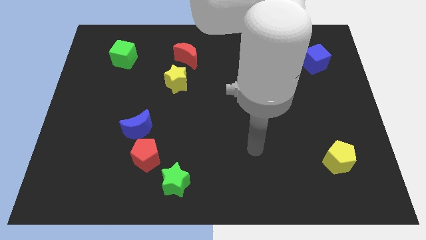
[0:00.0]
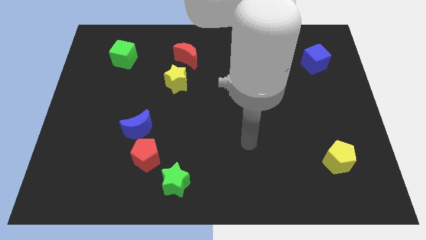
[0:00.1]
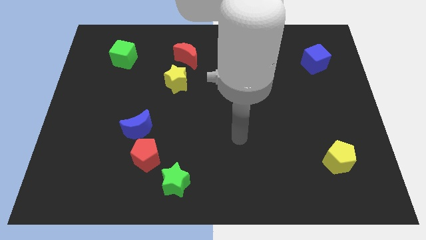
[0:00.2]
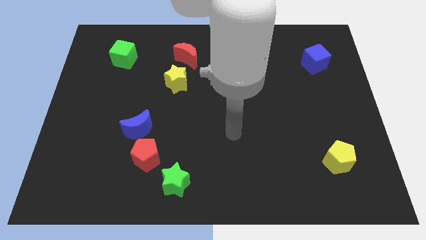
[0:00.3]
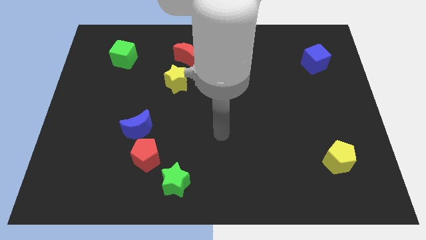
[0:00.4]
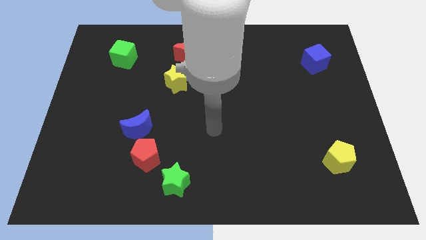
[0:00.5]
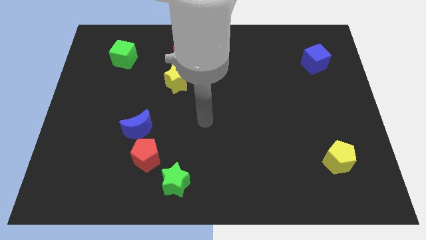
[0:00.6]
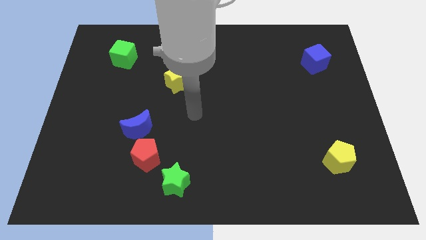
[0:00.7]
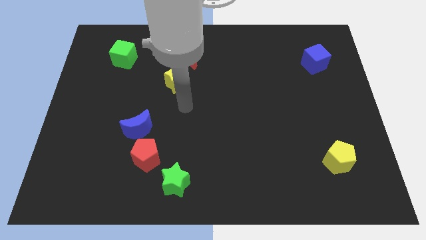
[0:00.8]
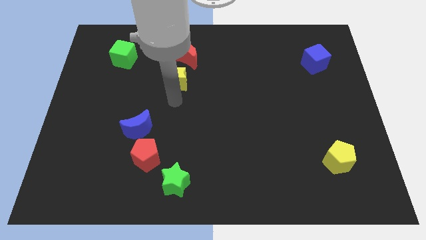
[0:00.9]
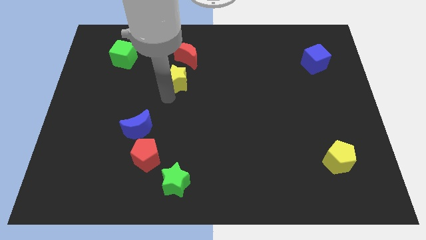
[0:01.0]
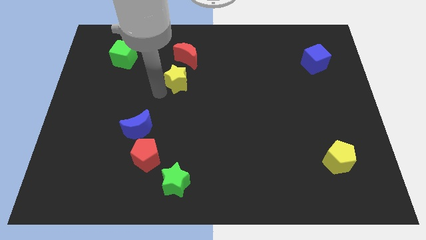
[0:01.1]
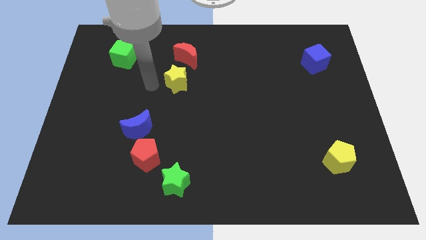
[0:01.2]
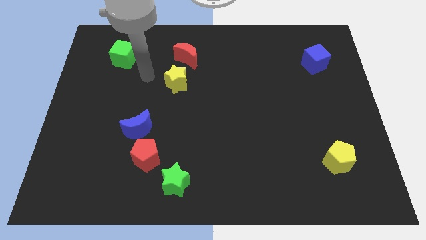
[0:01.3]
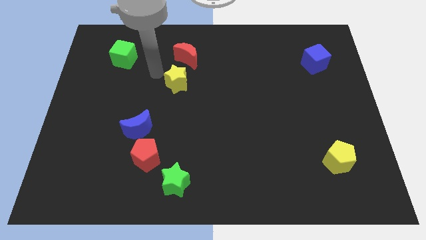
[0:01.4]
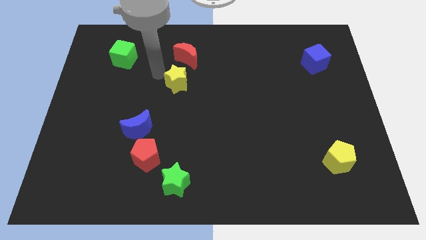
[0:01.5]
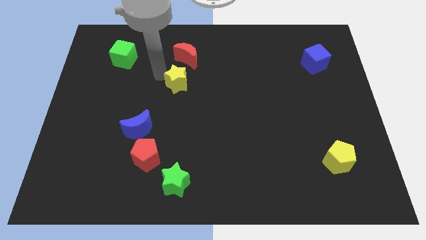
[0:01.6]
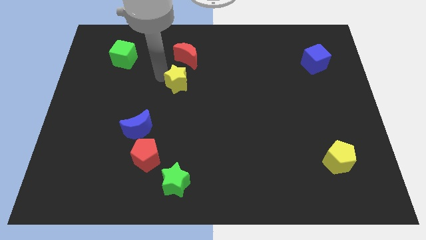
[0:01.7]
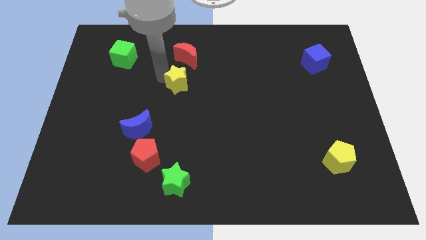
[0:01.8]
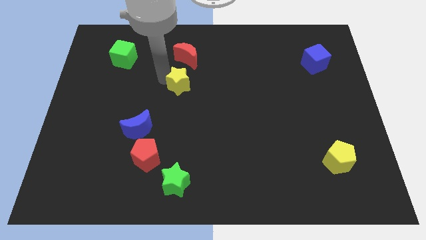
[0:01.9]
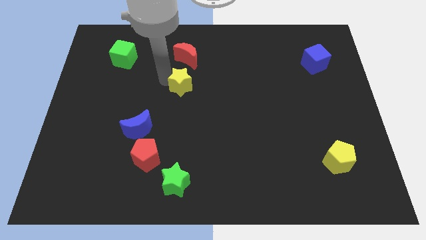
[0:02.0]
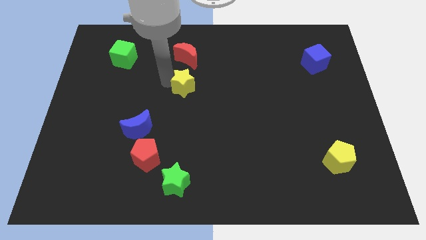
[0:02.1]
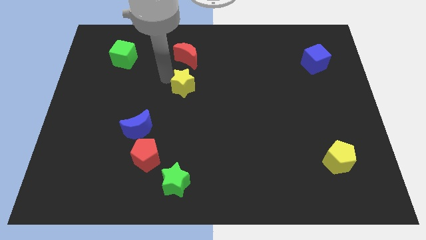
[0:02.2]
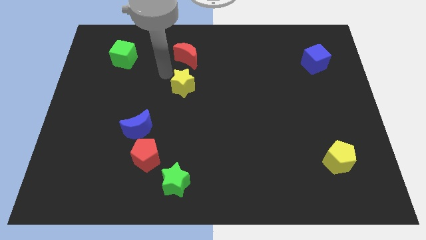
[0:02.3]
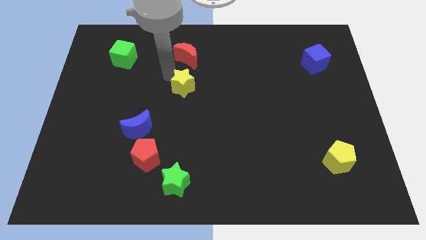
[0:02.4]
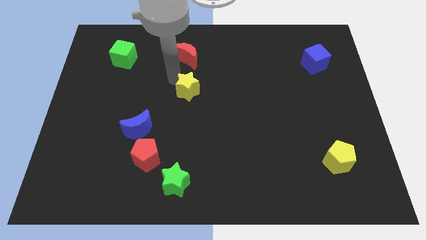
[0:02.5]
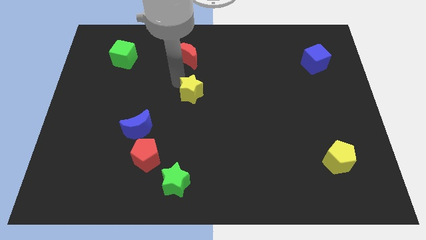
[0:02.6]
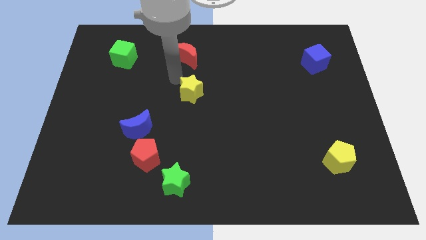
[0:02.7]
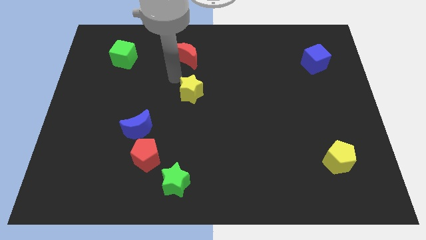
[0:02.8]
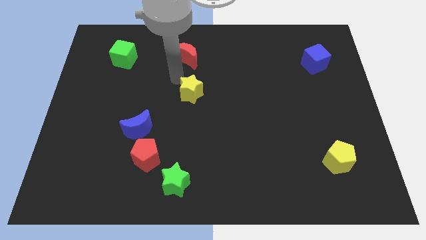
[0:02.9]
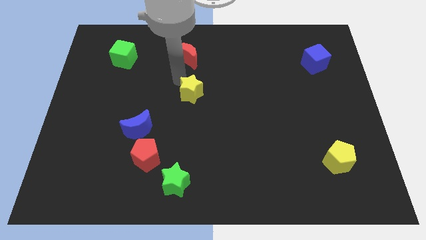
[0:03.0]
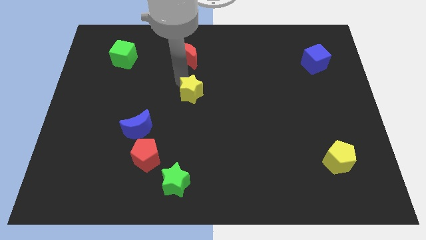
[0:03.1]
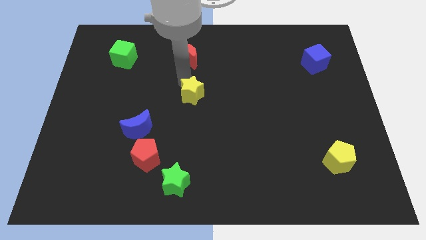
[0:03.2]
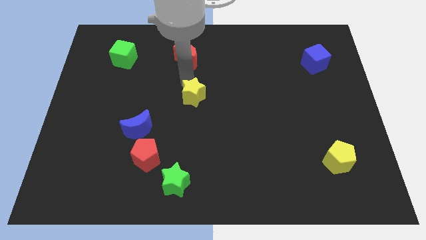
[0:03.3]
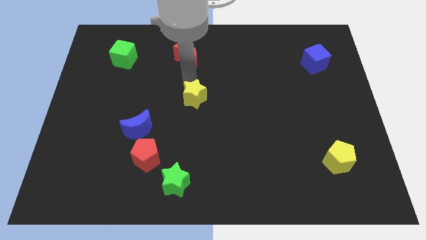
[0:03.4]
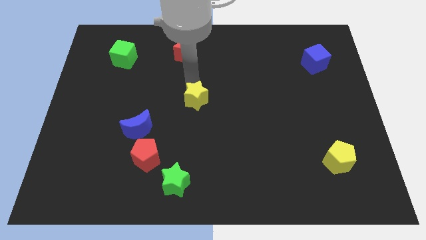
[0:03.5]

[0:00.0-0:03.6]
slide the yellow star somewhat downwards and then to the right

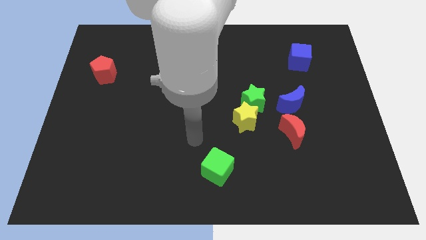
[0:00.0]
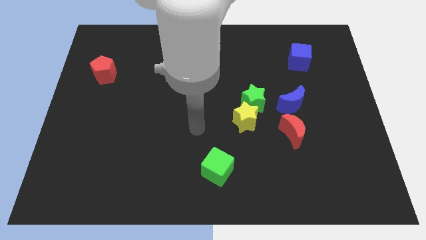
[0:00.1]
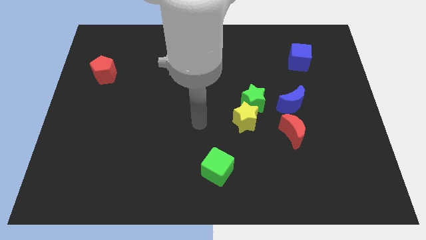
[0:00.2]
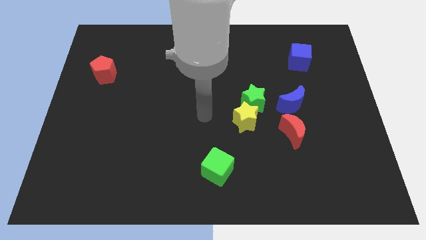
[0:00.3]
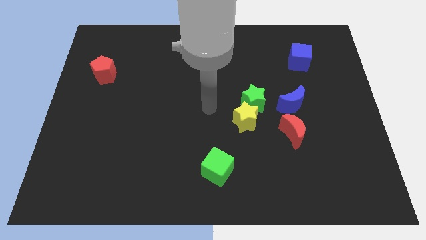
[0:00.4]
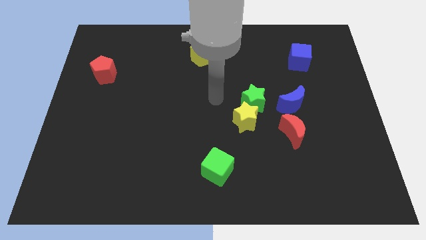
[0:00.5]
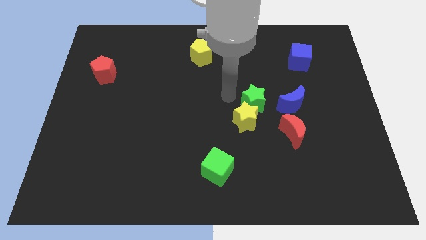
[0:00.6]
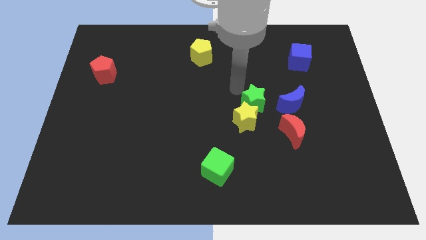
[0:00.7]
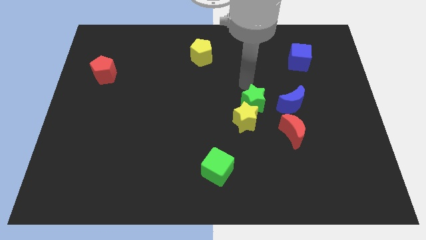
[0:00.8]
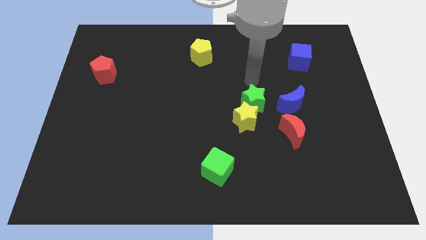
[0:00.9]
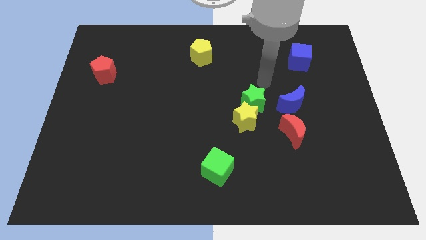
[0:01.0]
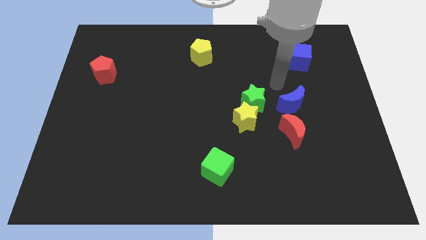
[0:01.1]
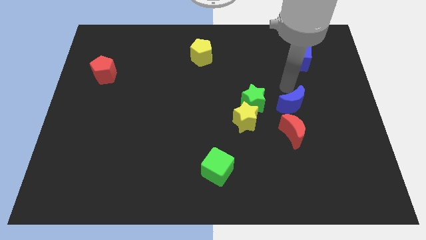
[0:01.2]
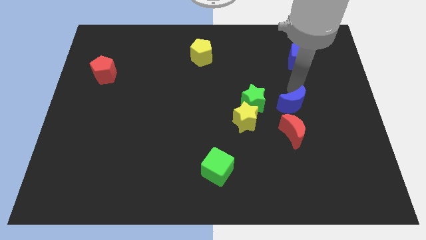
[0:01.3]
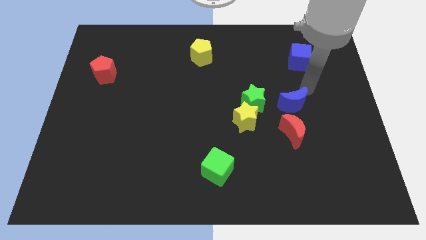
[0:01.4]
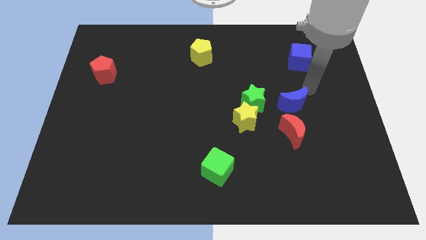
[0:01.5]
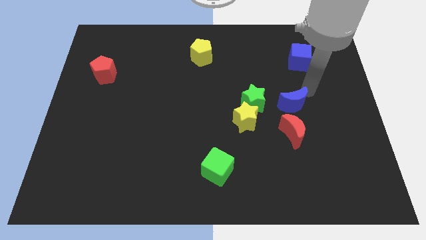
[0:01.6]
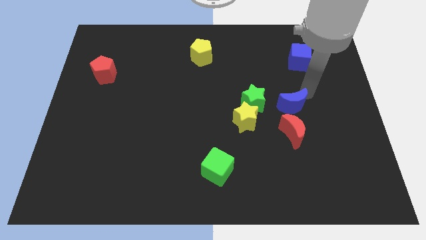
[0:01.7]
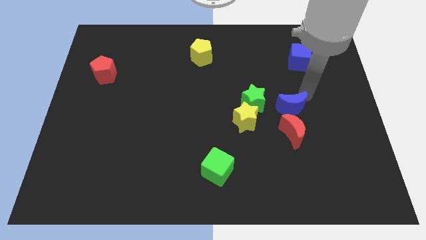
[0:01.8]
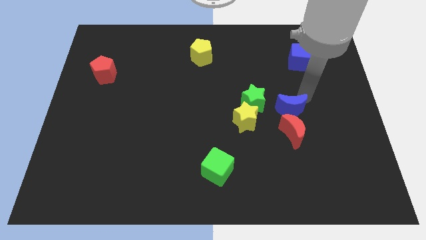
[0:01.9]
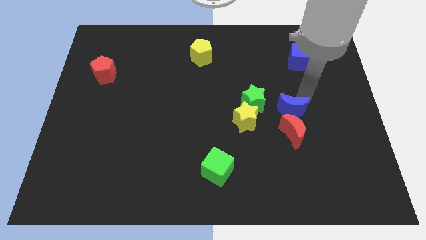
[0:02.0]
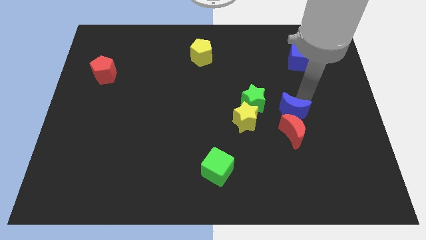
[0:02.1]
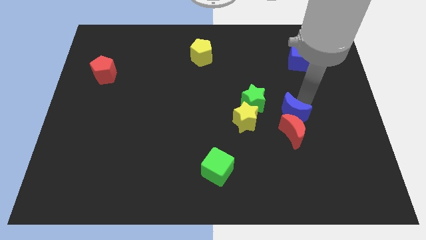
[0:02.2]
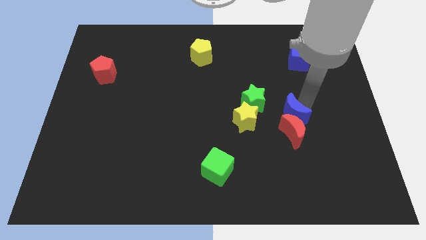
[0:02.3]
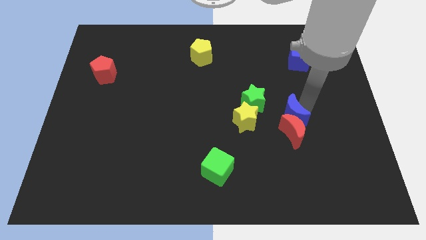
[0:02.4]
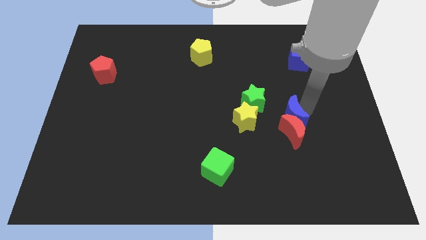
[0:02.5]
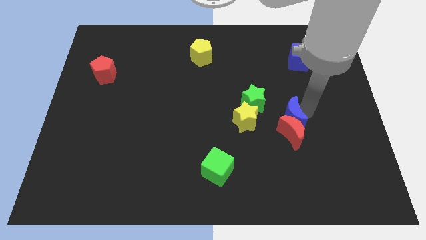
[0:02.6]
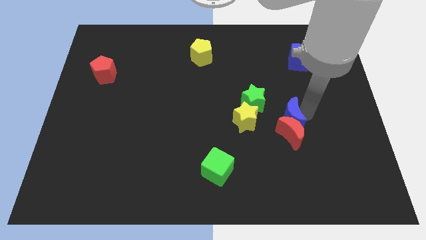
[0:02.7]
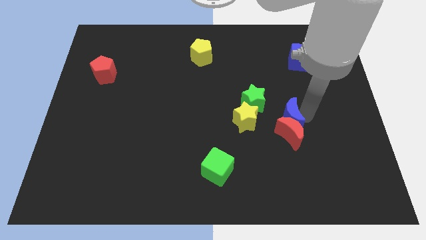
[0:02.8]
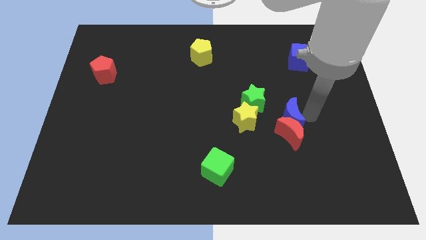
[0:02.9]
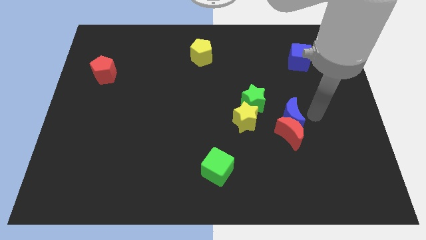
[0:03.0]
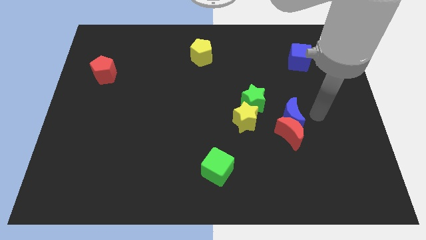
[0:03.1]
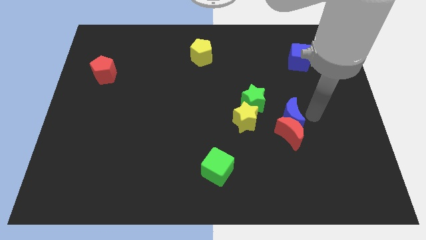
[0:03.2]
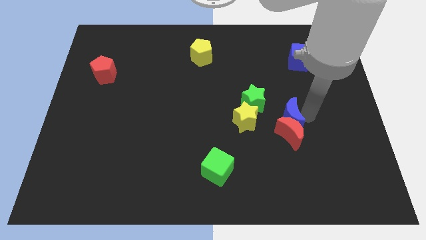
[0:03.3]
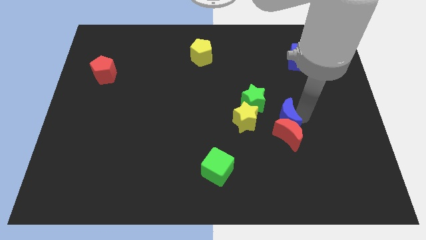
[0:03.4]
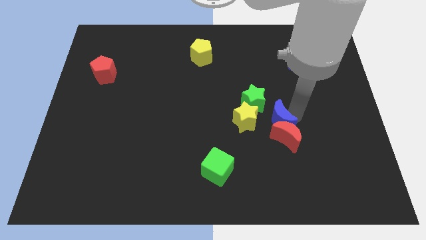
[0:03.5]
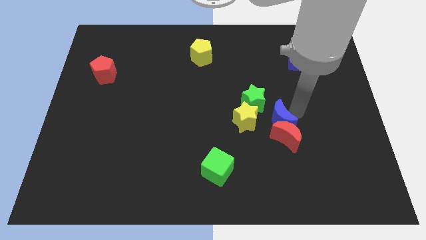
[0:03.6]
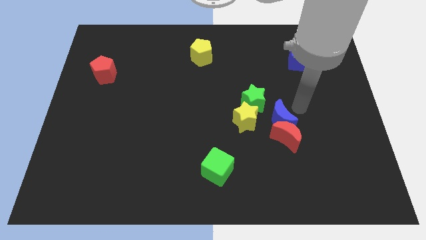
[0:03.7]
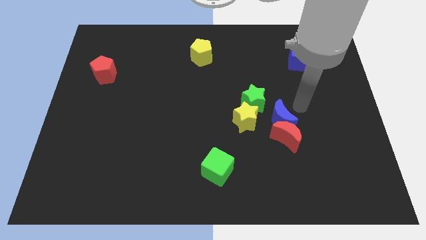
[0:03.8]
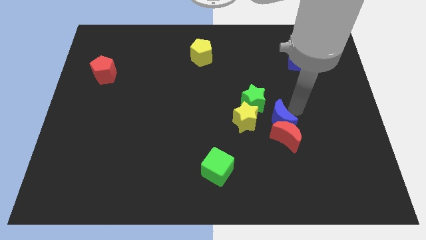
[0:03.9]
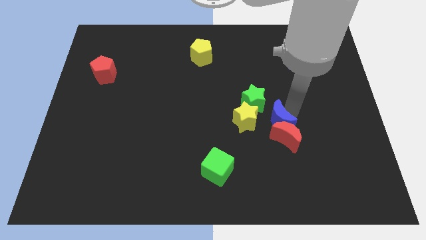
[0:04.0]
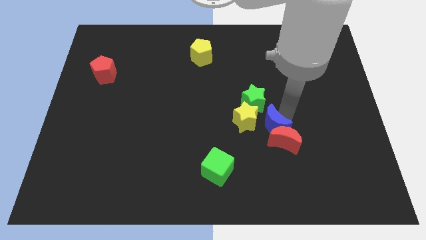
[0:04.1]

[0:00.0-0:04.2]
slide the blue moon a little diagonally downwards and to the left

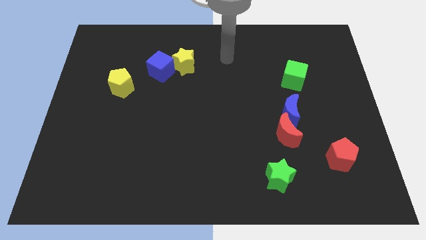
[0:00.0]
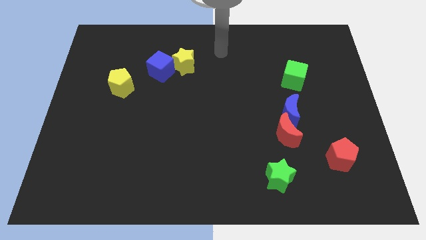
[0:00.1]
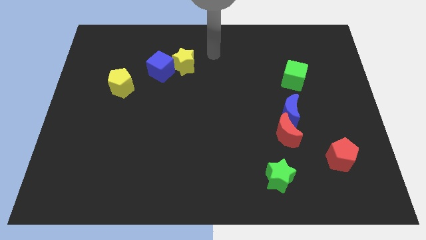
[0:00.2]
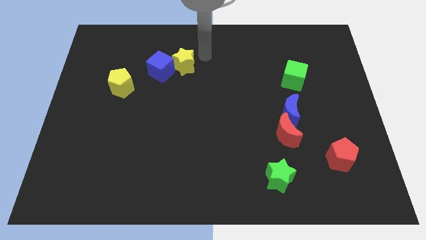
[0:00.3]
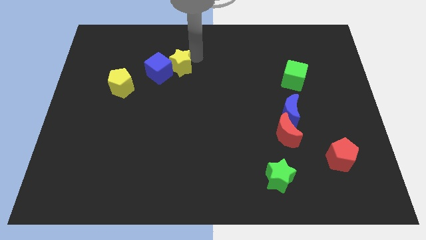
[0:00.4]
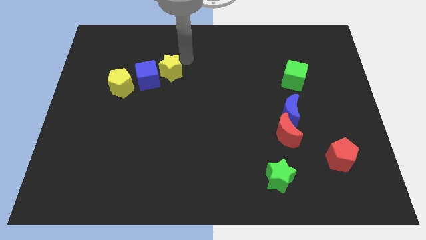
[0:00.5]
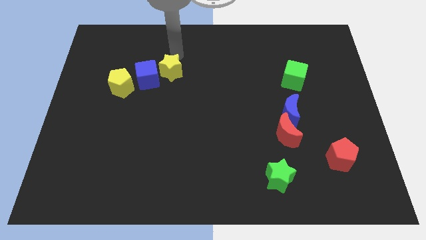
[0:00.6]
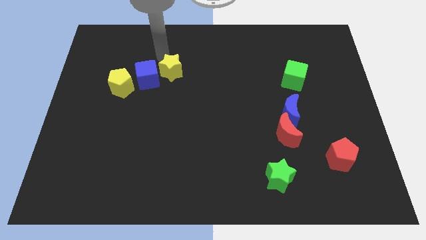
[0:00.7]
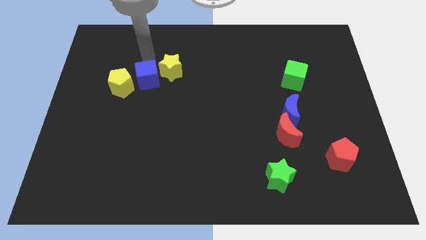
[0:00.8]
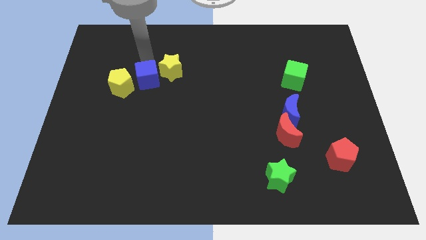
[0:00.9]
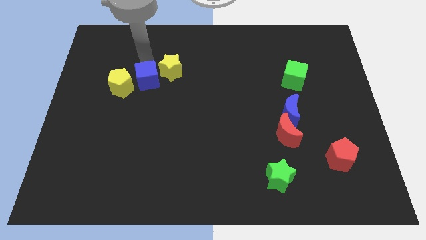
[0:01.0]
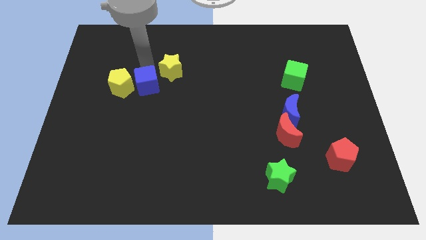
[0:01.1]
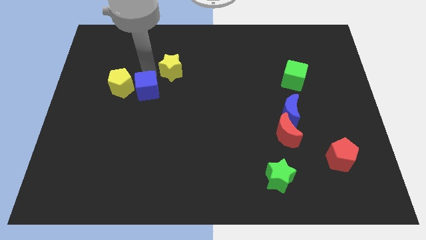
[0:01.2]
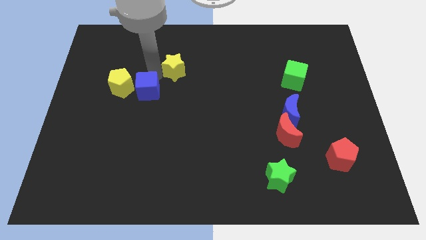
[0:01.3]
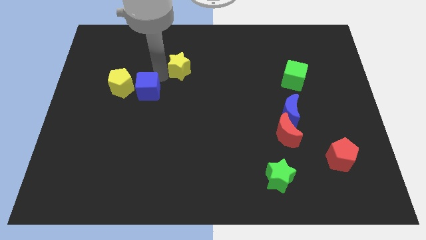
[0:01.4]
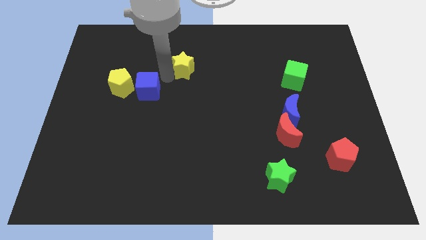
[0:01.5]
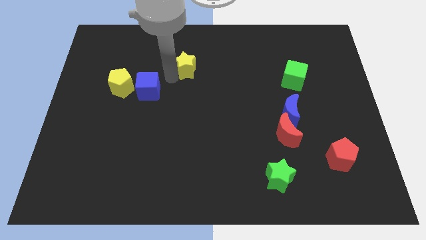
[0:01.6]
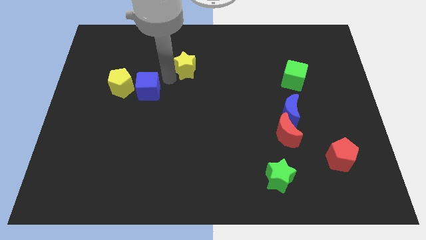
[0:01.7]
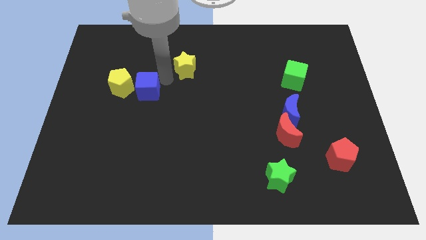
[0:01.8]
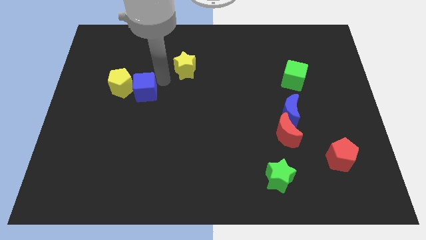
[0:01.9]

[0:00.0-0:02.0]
slide the blue cube down and to the left somewhat
